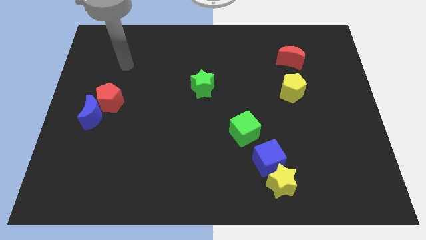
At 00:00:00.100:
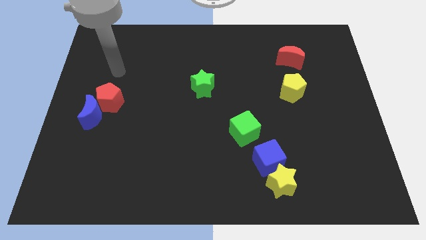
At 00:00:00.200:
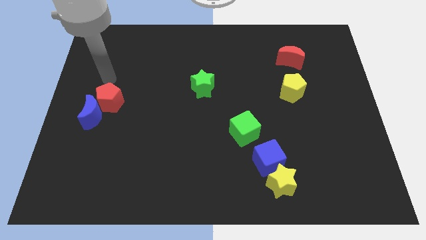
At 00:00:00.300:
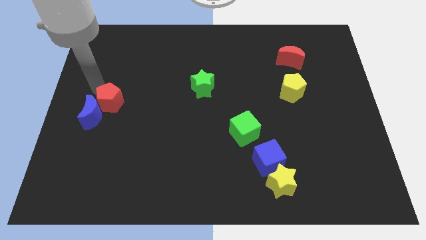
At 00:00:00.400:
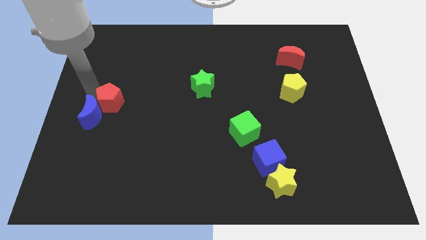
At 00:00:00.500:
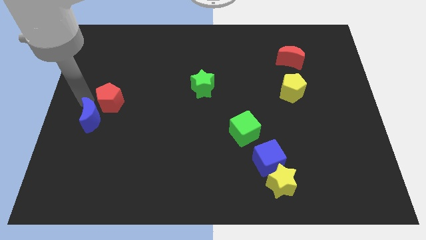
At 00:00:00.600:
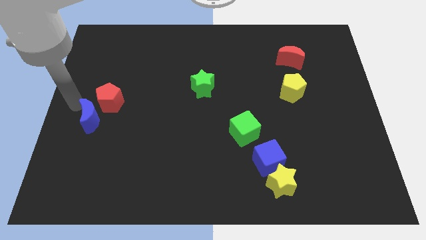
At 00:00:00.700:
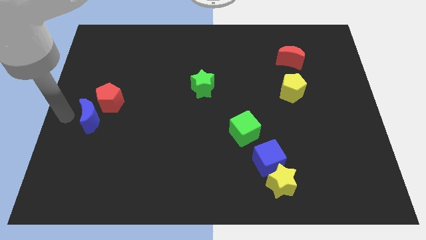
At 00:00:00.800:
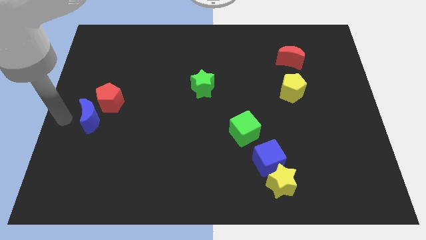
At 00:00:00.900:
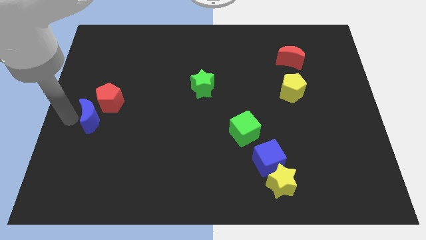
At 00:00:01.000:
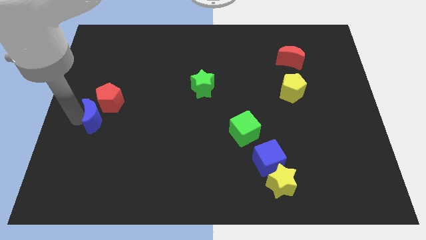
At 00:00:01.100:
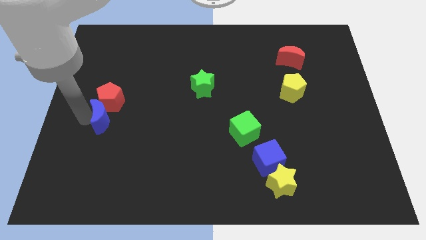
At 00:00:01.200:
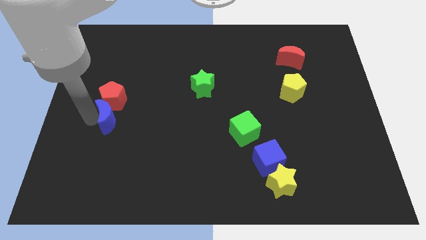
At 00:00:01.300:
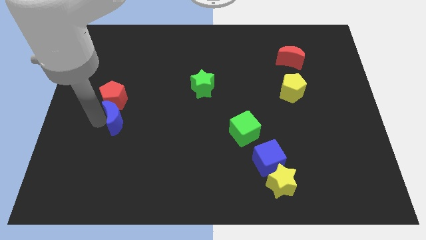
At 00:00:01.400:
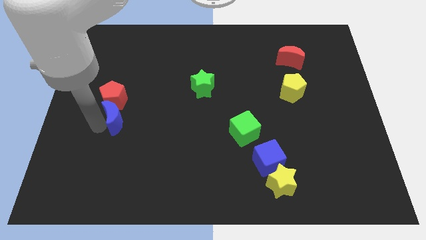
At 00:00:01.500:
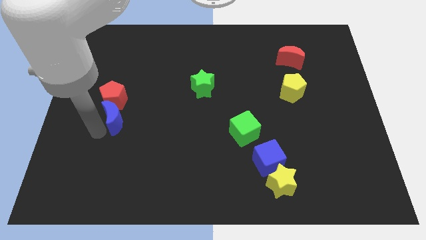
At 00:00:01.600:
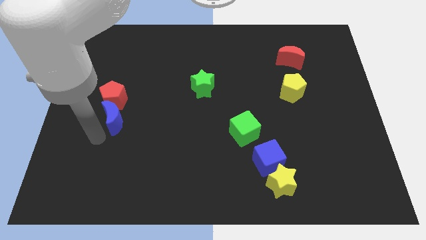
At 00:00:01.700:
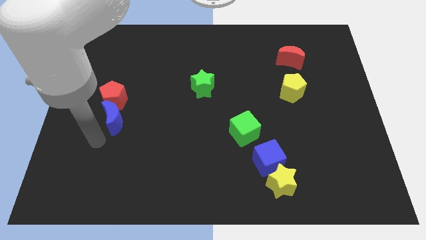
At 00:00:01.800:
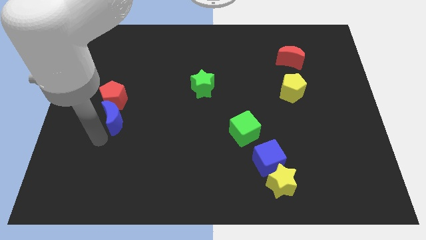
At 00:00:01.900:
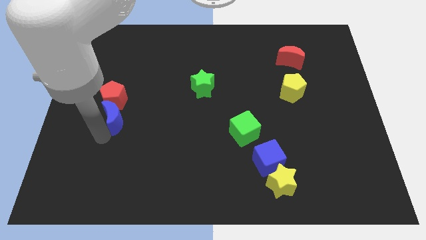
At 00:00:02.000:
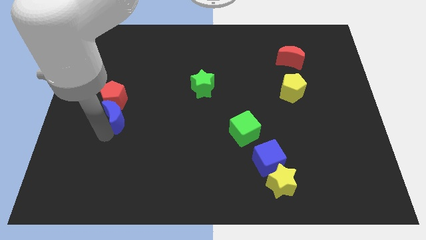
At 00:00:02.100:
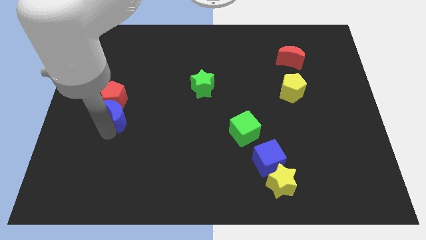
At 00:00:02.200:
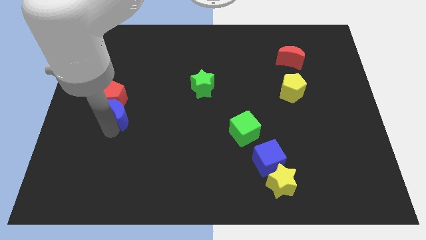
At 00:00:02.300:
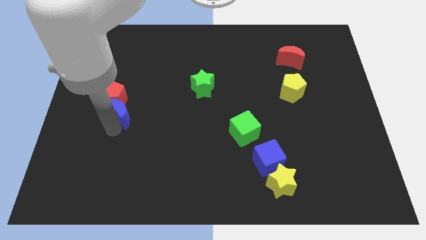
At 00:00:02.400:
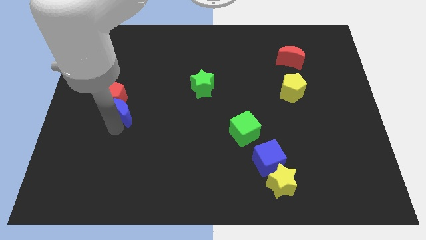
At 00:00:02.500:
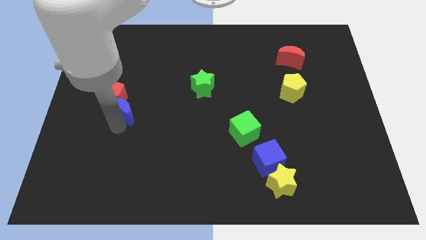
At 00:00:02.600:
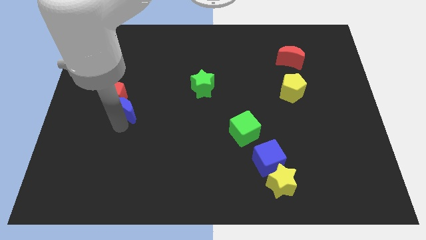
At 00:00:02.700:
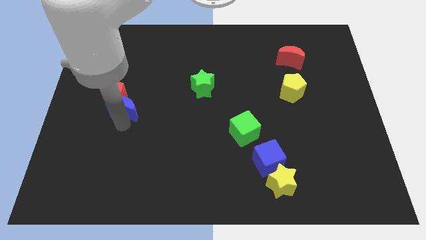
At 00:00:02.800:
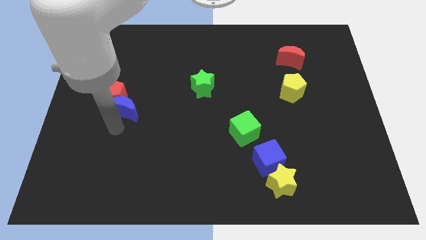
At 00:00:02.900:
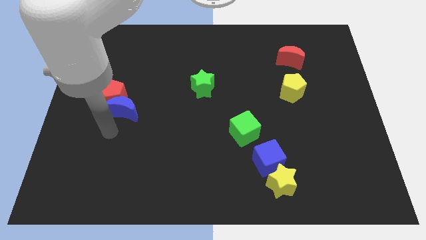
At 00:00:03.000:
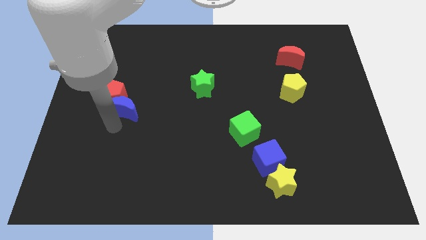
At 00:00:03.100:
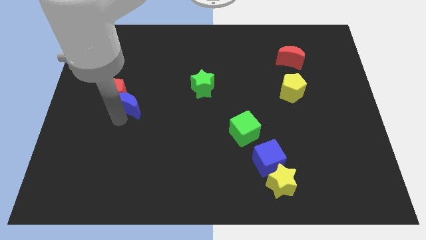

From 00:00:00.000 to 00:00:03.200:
push the blue moon diagonally upwards and to the right a little

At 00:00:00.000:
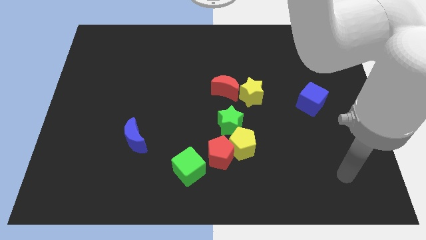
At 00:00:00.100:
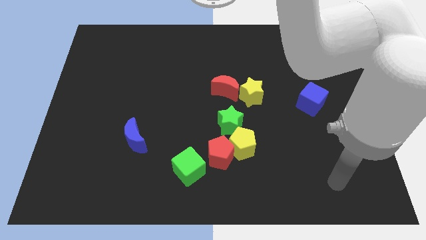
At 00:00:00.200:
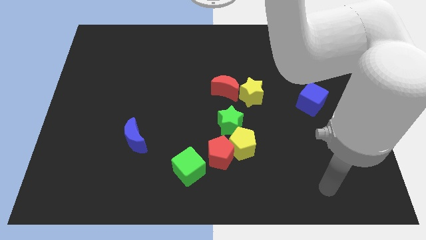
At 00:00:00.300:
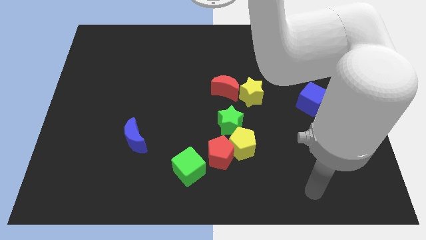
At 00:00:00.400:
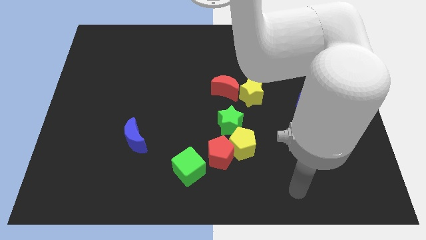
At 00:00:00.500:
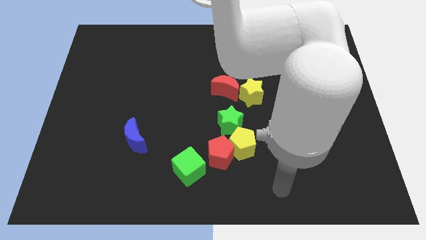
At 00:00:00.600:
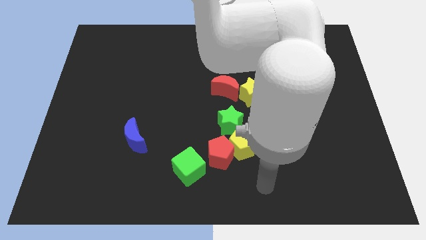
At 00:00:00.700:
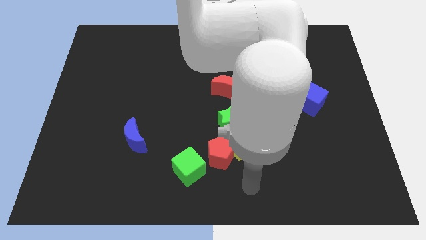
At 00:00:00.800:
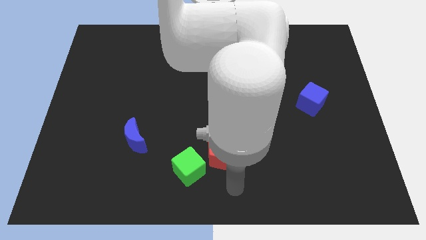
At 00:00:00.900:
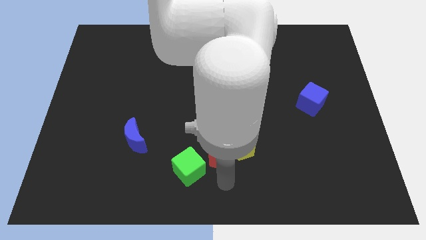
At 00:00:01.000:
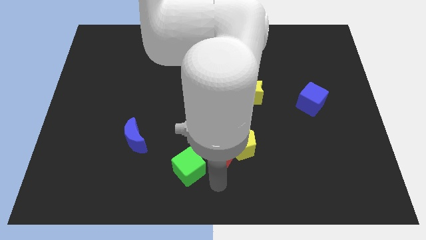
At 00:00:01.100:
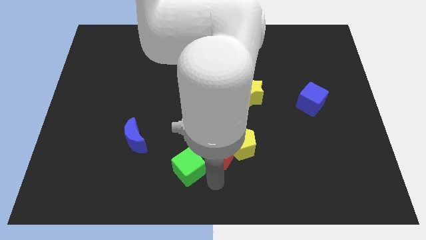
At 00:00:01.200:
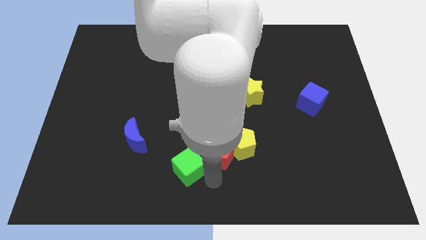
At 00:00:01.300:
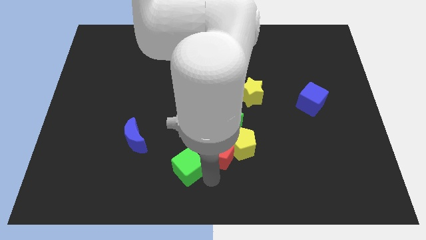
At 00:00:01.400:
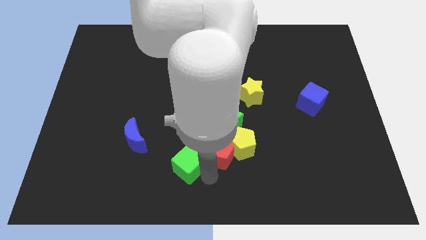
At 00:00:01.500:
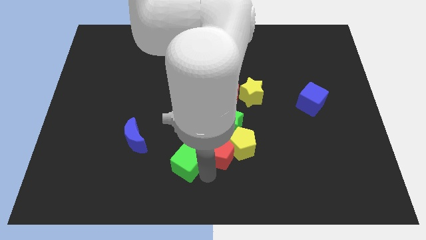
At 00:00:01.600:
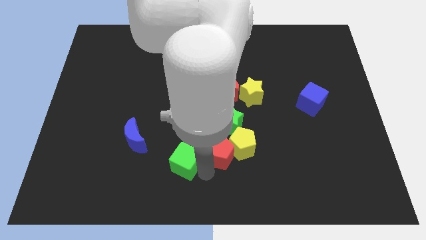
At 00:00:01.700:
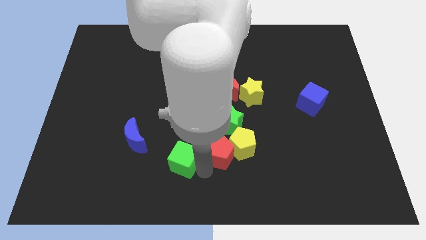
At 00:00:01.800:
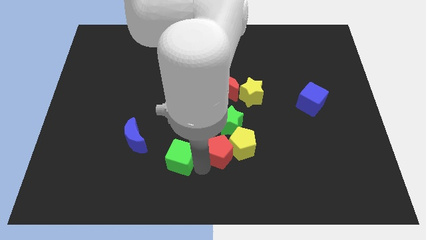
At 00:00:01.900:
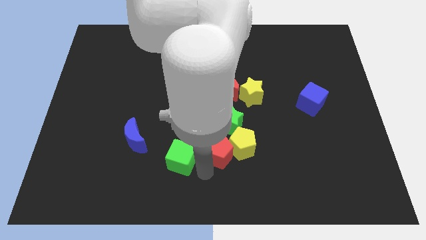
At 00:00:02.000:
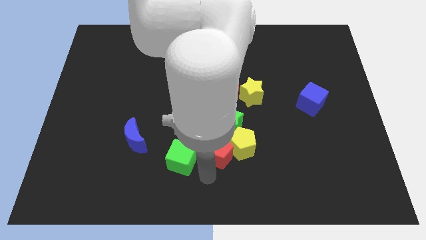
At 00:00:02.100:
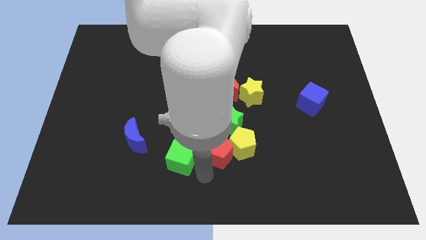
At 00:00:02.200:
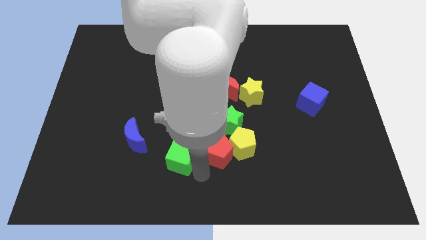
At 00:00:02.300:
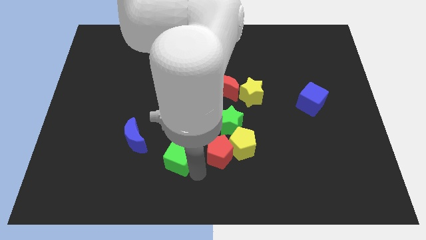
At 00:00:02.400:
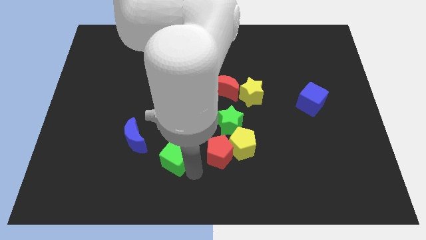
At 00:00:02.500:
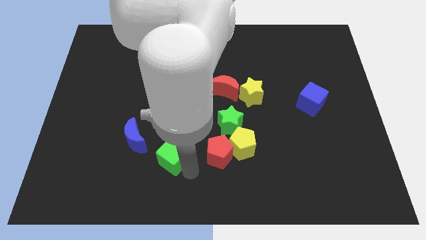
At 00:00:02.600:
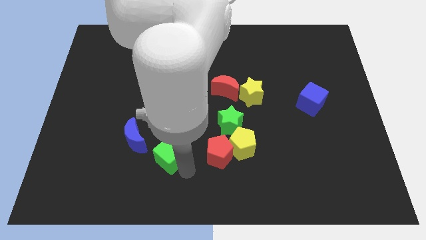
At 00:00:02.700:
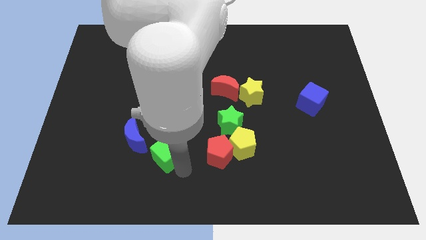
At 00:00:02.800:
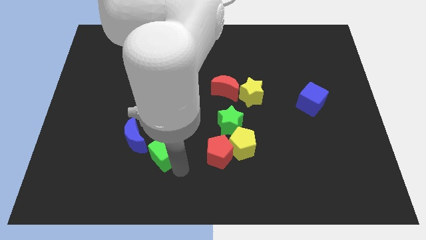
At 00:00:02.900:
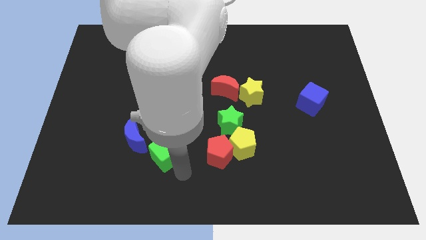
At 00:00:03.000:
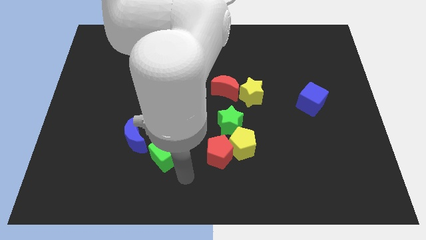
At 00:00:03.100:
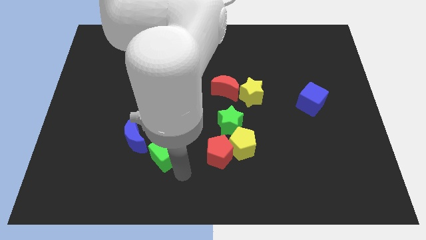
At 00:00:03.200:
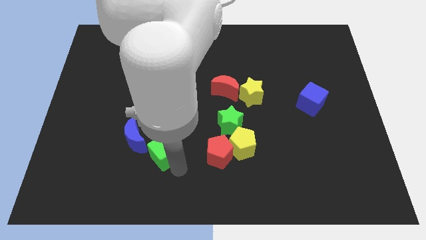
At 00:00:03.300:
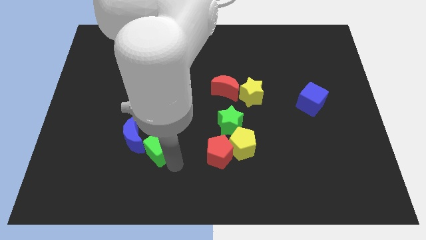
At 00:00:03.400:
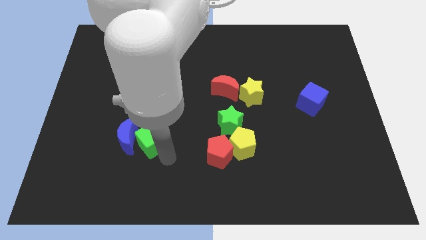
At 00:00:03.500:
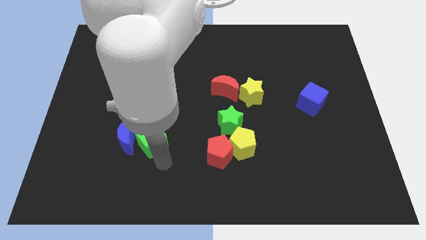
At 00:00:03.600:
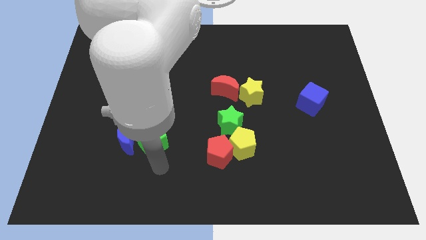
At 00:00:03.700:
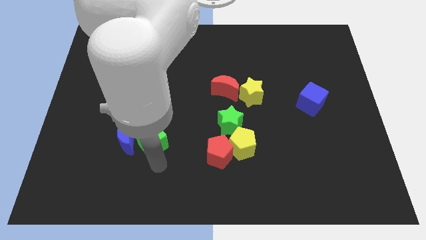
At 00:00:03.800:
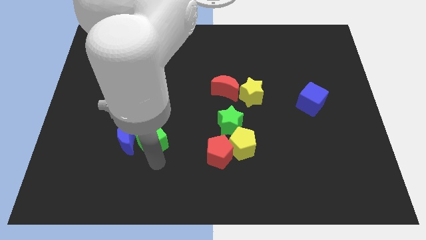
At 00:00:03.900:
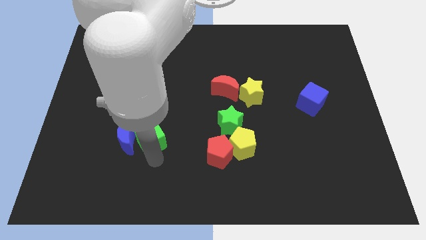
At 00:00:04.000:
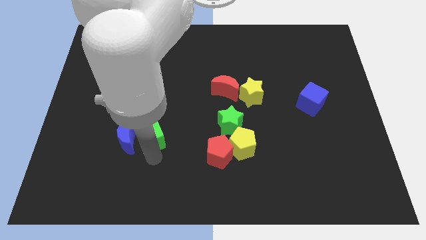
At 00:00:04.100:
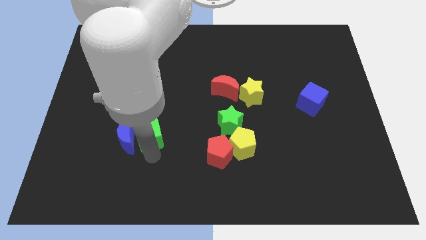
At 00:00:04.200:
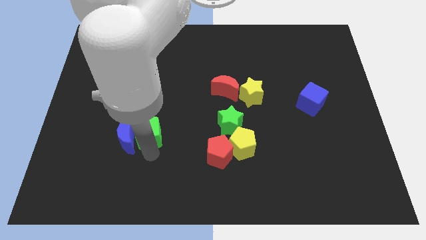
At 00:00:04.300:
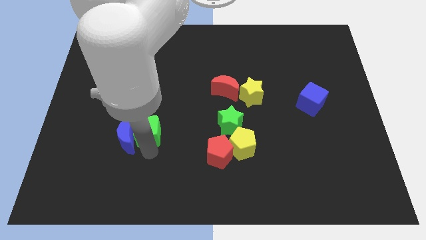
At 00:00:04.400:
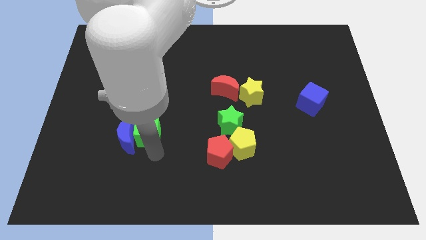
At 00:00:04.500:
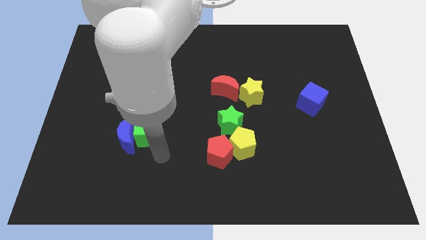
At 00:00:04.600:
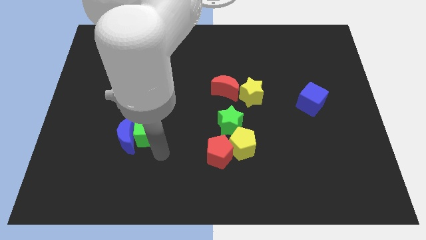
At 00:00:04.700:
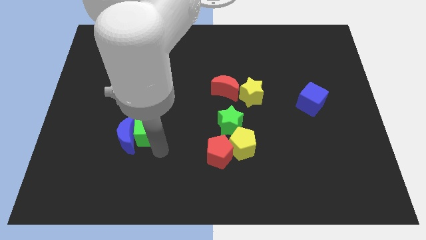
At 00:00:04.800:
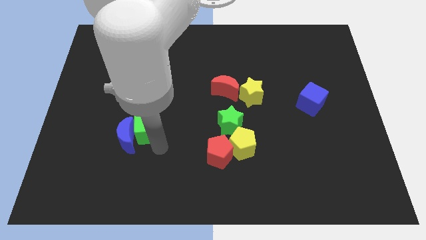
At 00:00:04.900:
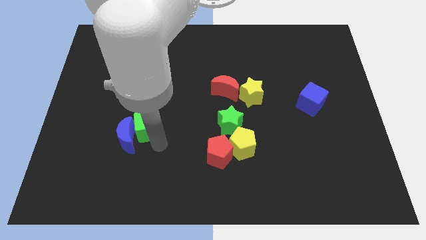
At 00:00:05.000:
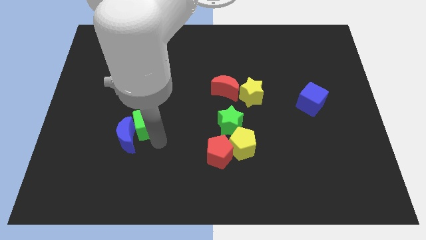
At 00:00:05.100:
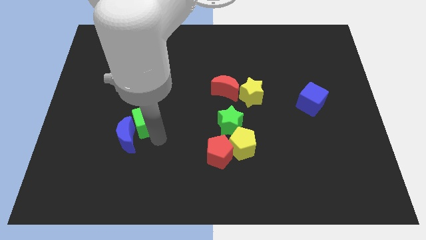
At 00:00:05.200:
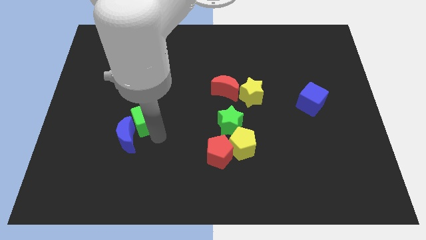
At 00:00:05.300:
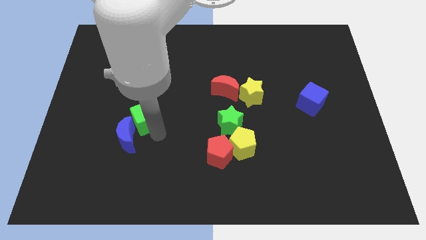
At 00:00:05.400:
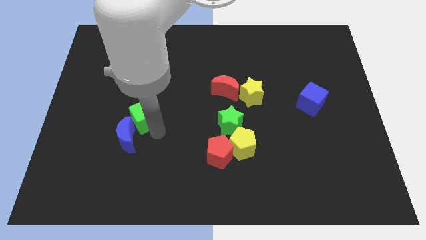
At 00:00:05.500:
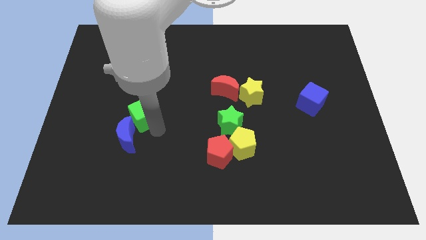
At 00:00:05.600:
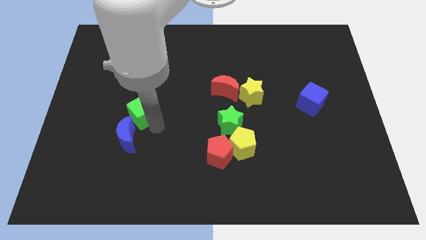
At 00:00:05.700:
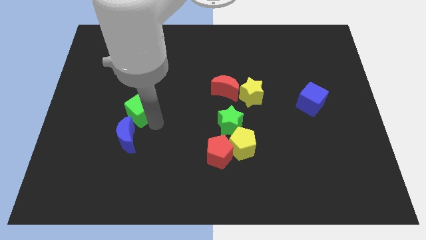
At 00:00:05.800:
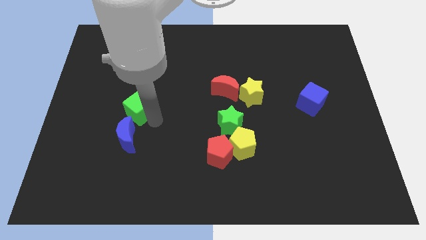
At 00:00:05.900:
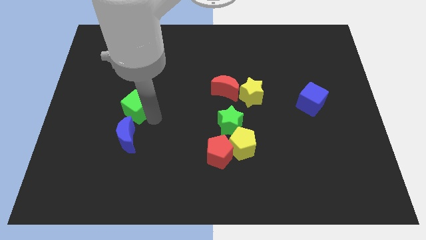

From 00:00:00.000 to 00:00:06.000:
move the green cube upwards and left diagonally
